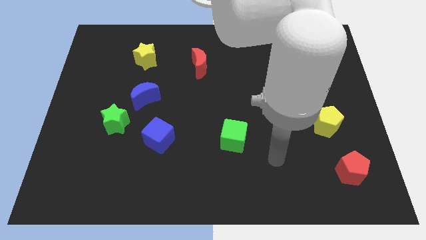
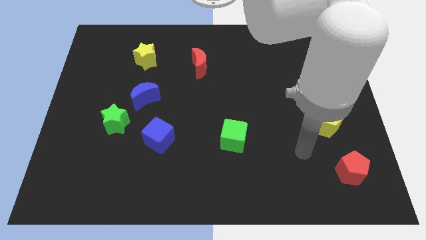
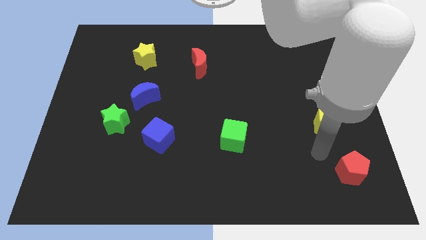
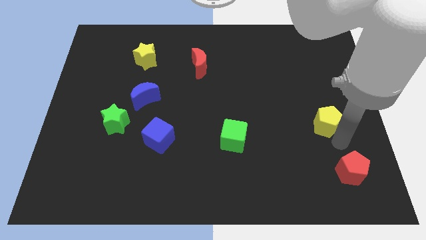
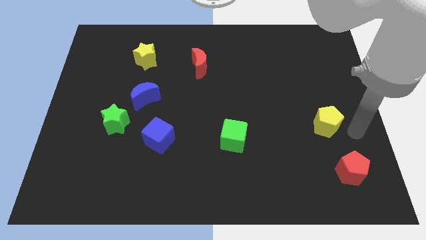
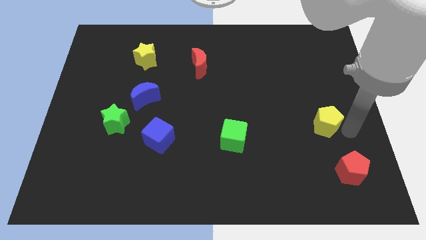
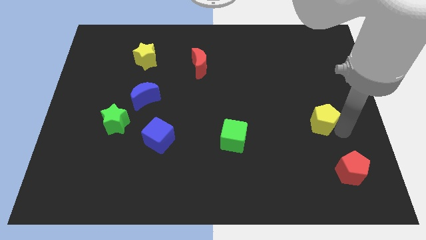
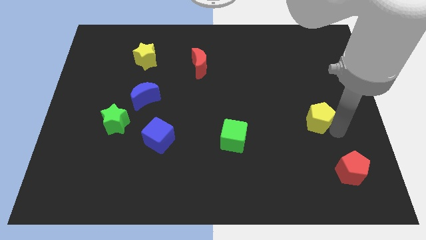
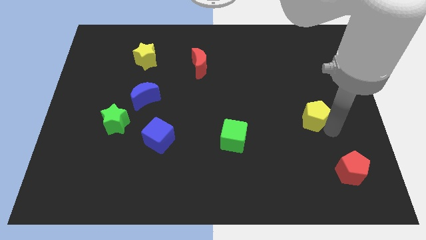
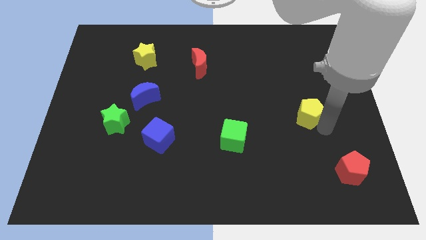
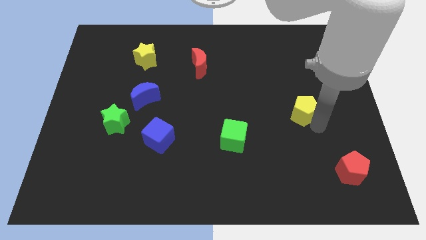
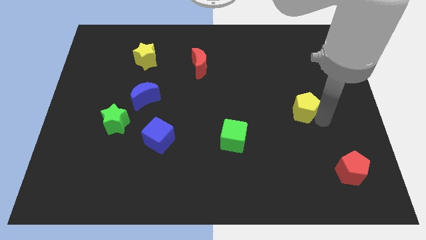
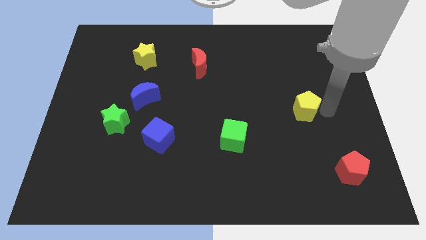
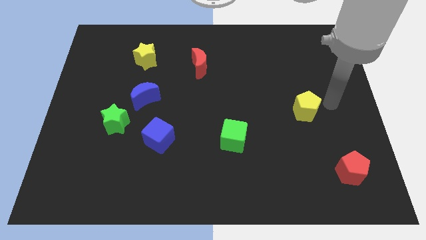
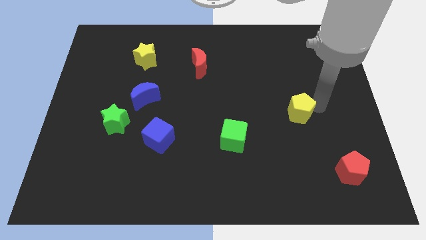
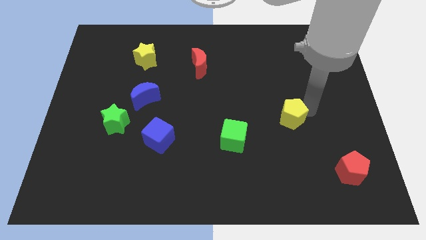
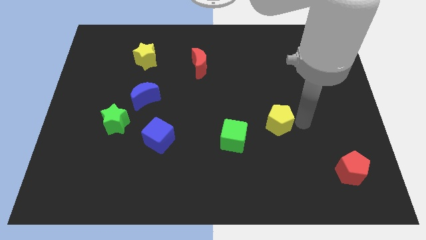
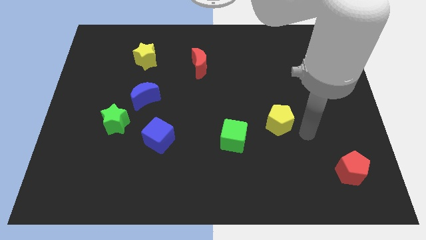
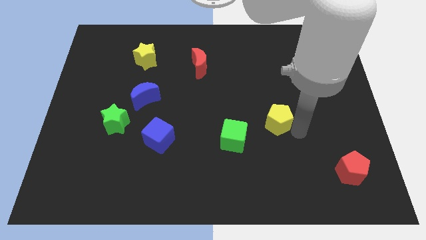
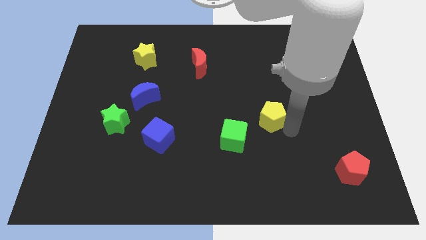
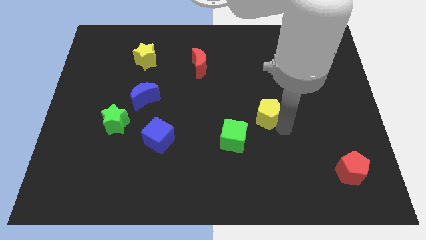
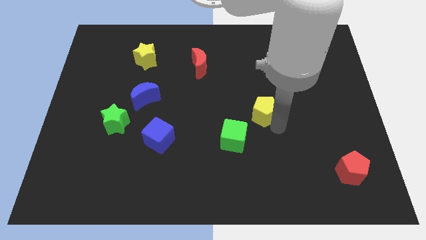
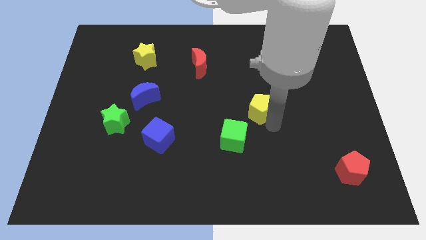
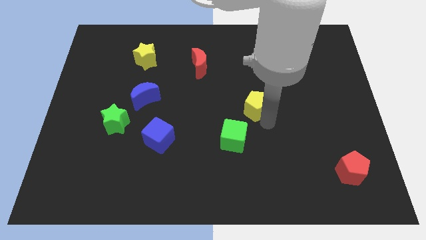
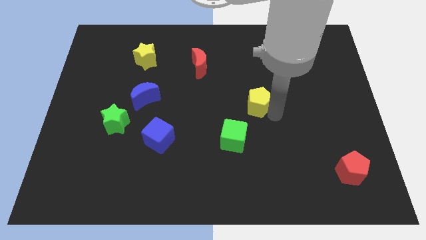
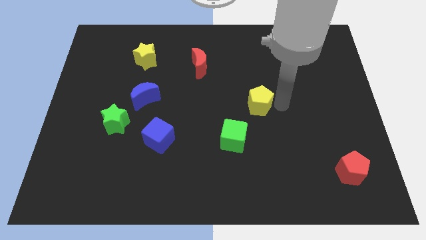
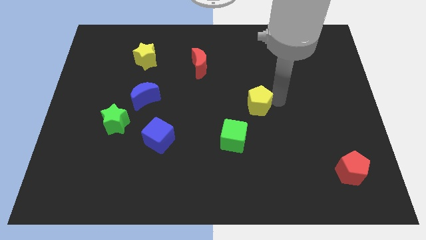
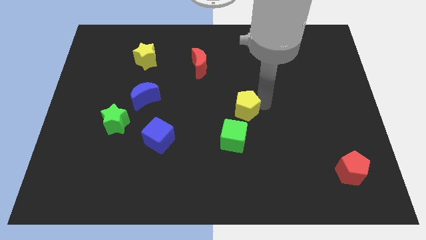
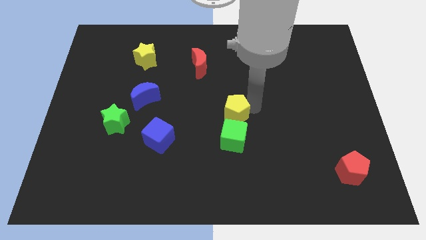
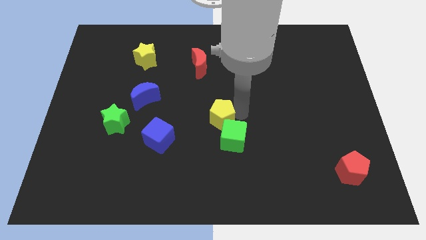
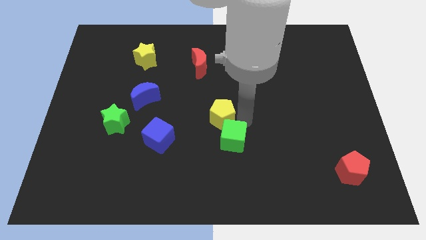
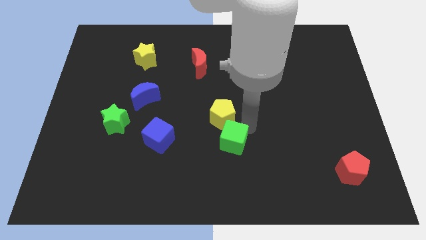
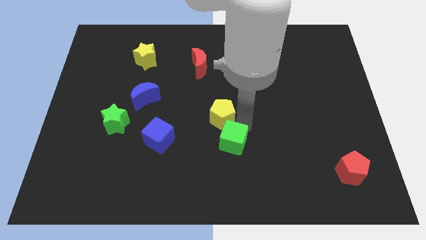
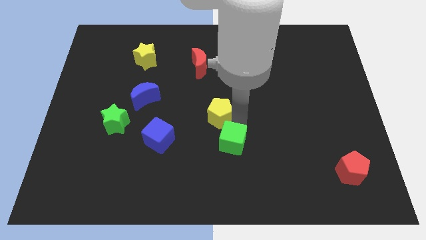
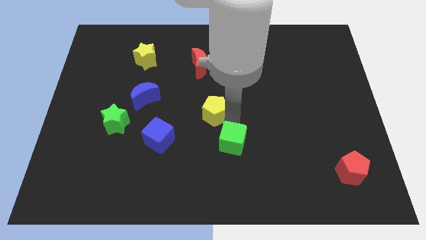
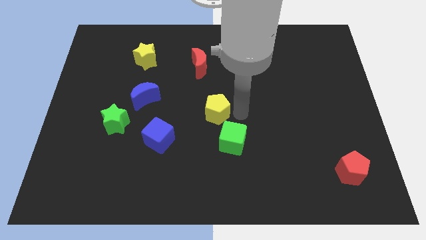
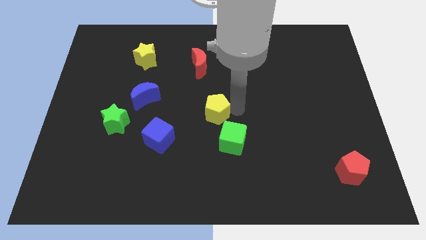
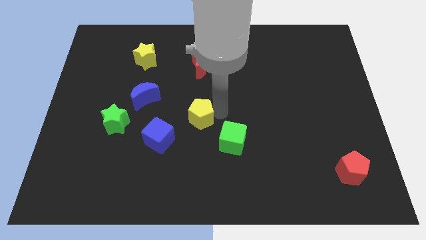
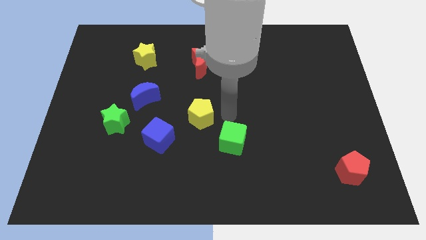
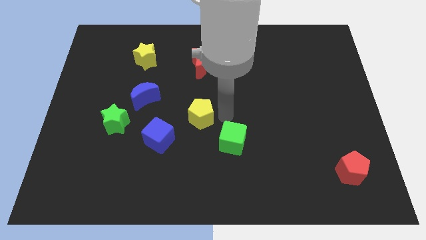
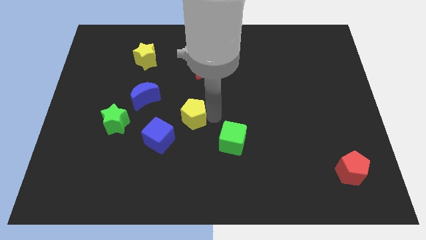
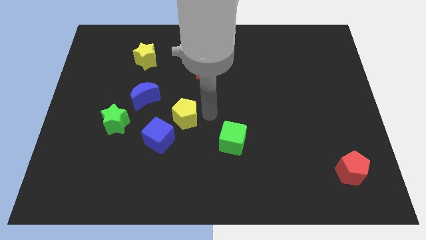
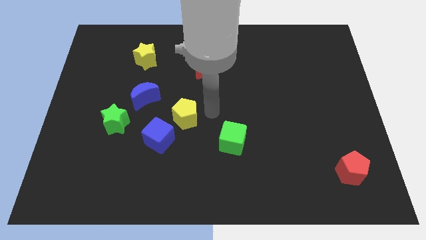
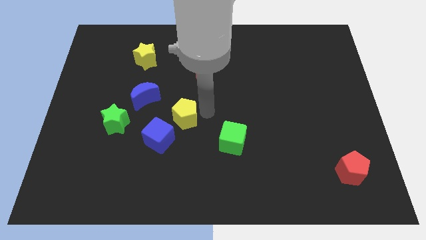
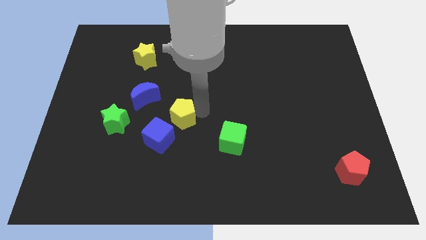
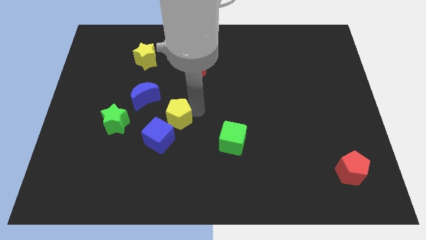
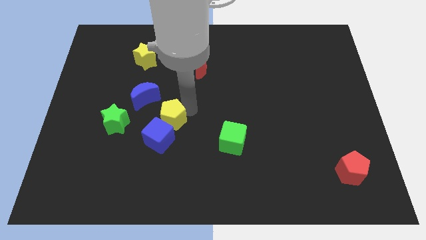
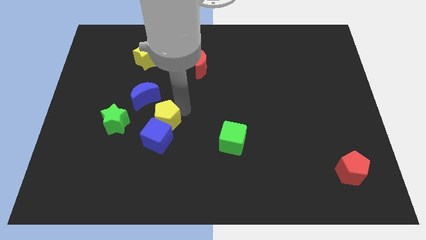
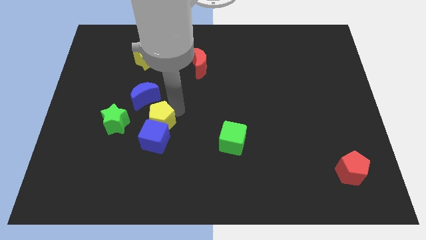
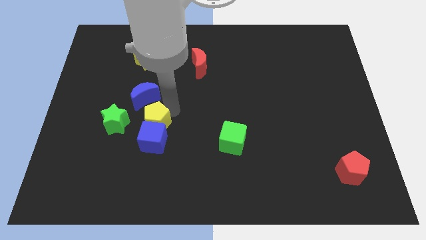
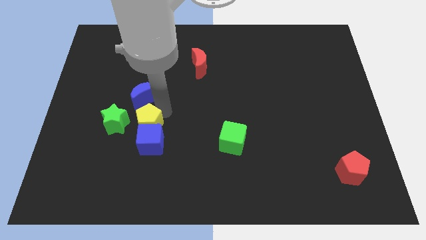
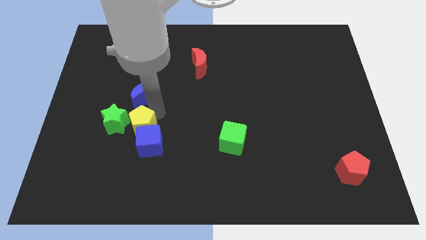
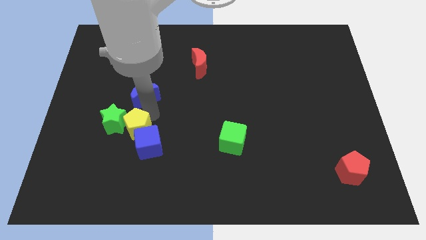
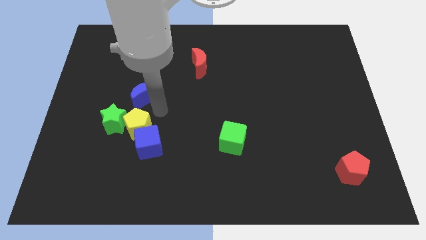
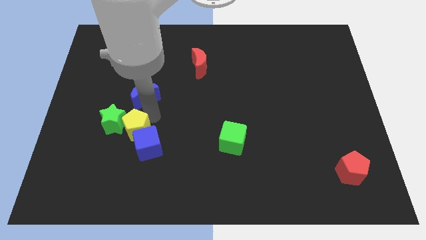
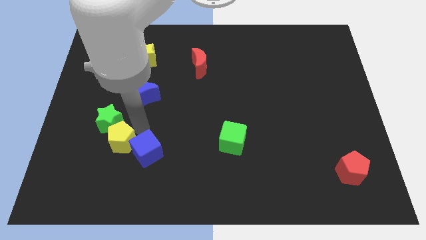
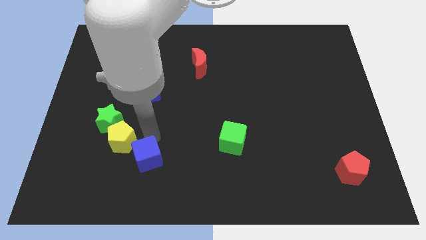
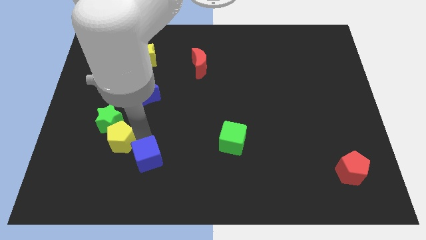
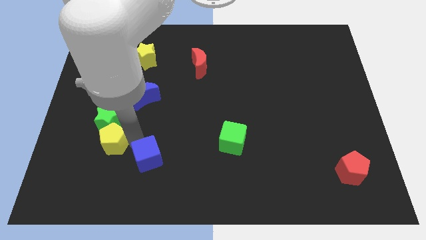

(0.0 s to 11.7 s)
slide the yellow pentagon to the bottom left side of the green star
